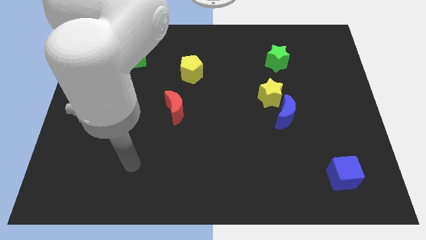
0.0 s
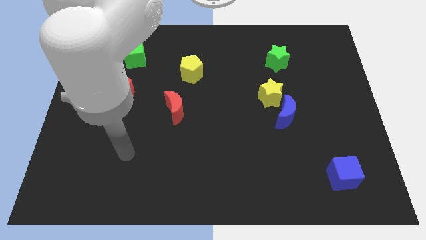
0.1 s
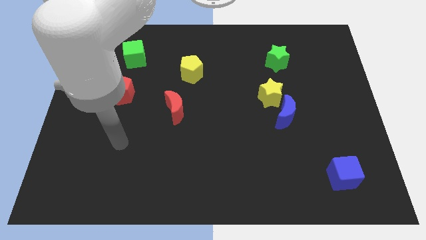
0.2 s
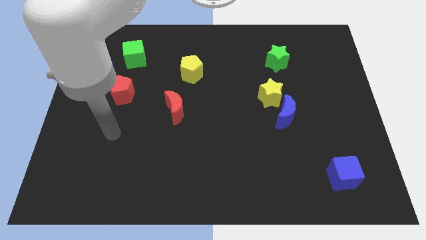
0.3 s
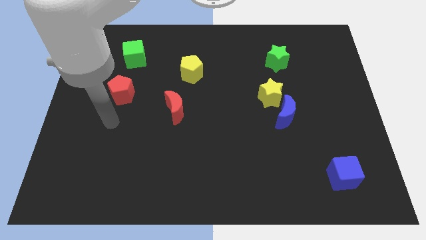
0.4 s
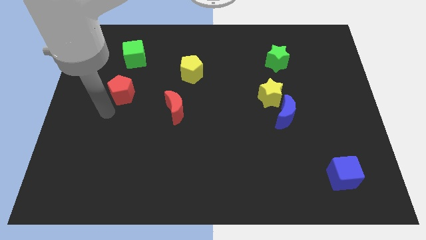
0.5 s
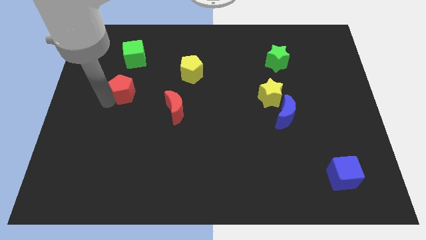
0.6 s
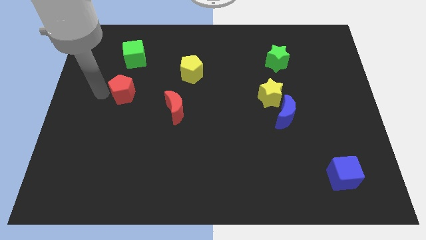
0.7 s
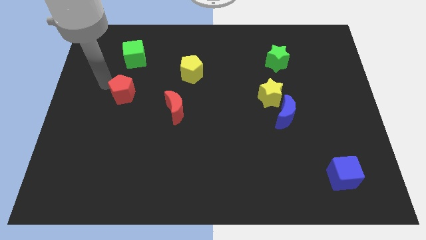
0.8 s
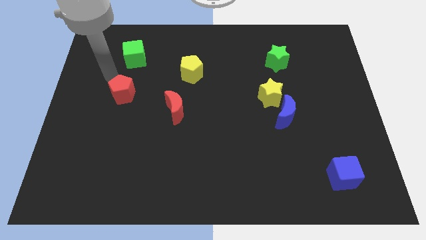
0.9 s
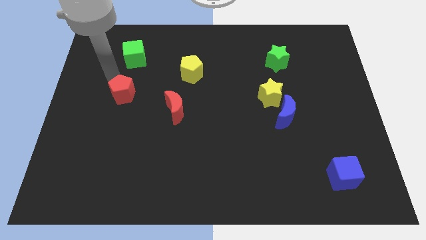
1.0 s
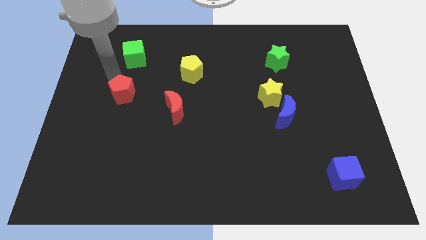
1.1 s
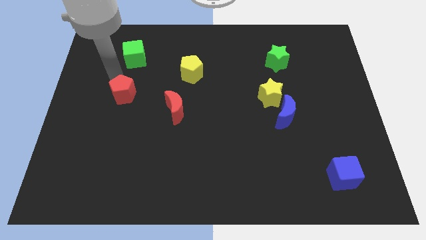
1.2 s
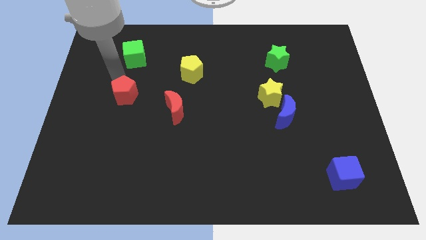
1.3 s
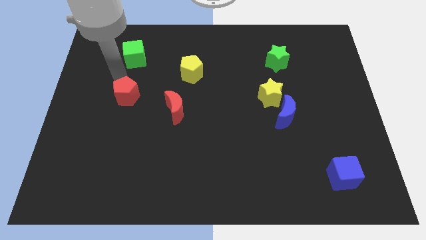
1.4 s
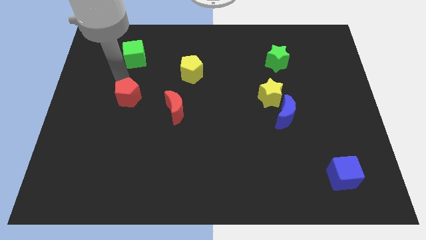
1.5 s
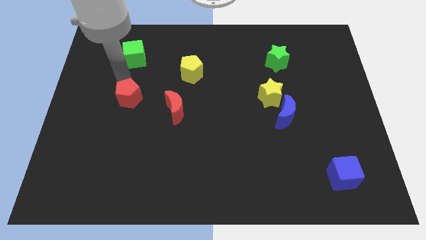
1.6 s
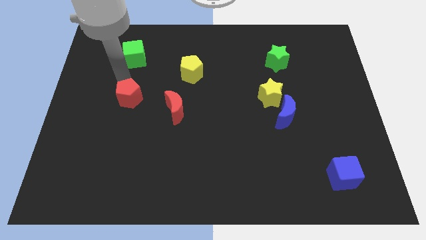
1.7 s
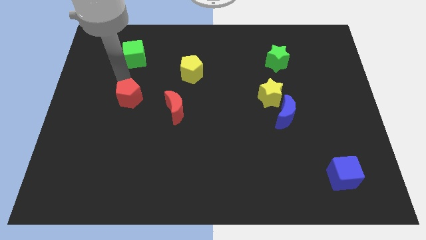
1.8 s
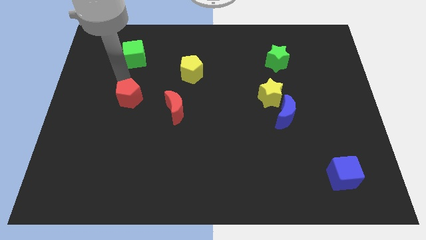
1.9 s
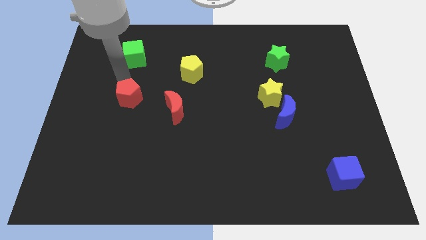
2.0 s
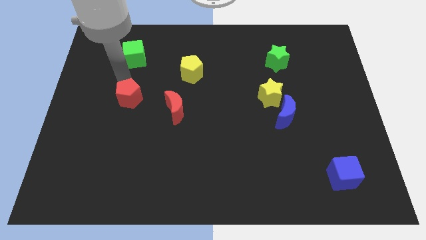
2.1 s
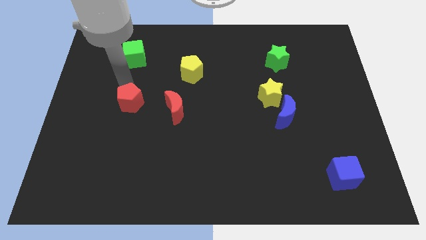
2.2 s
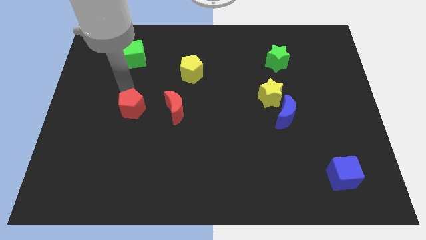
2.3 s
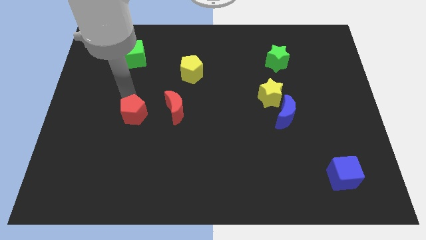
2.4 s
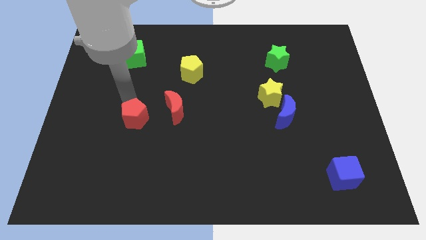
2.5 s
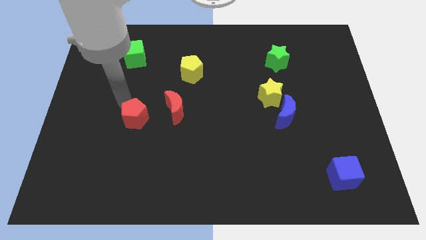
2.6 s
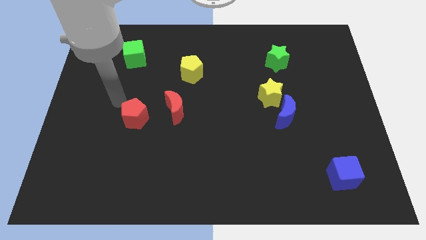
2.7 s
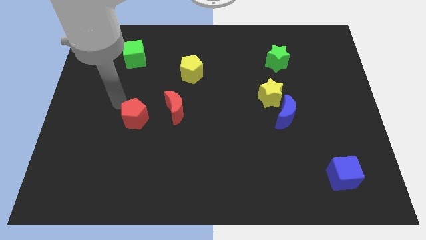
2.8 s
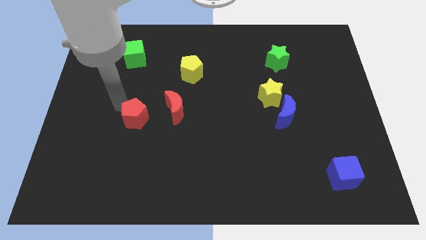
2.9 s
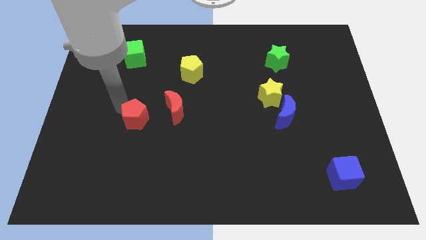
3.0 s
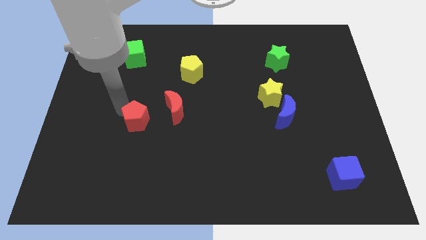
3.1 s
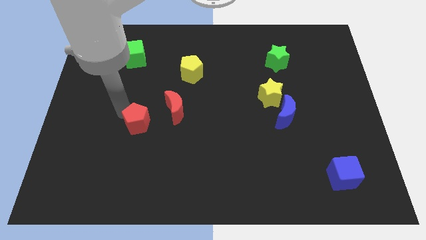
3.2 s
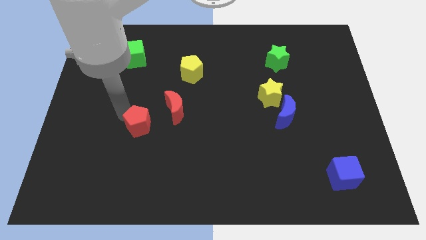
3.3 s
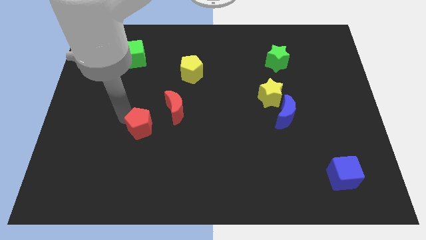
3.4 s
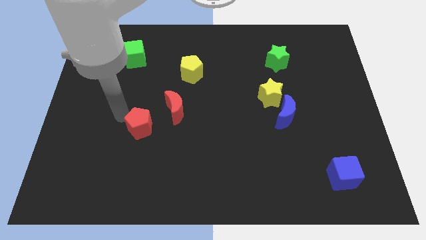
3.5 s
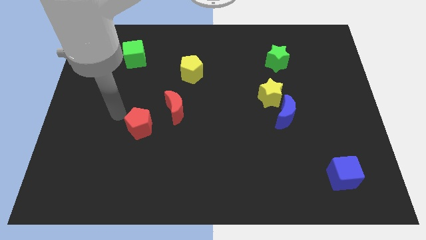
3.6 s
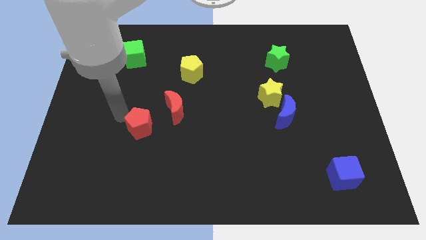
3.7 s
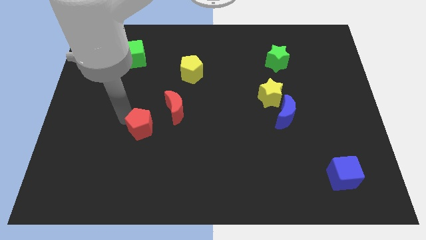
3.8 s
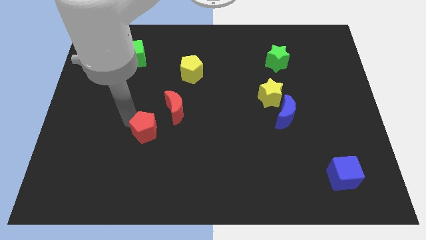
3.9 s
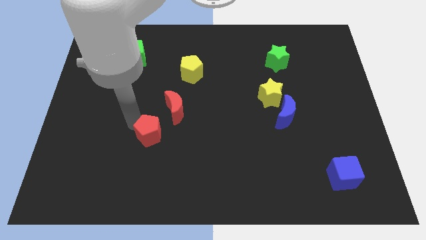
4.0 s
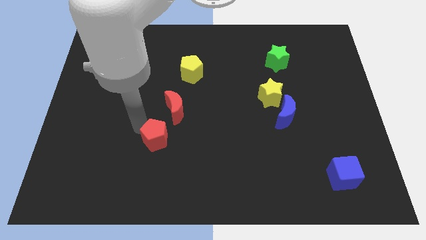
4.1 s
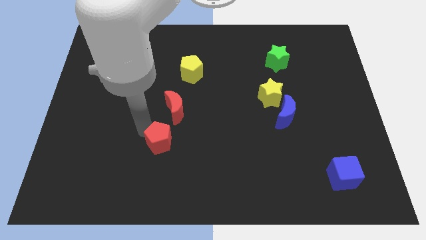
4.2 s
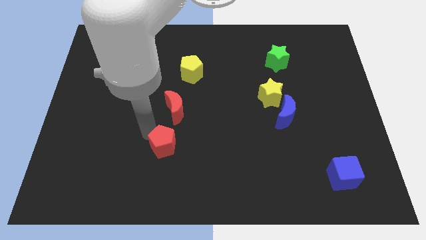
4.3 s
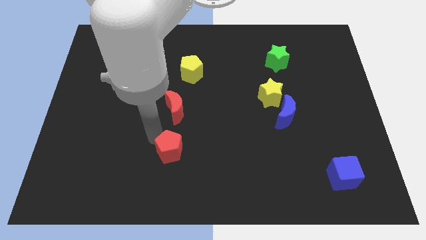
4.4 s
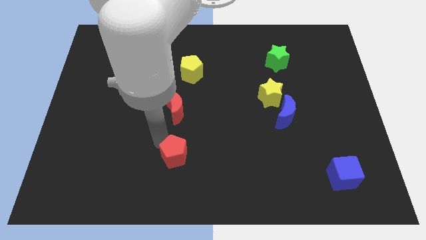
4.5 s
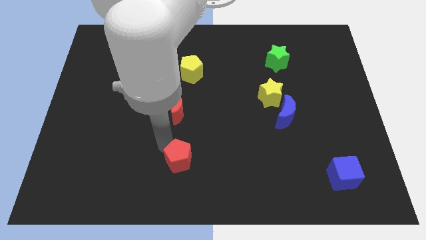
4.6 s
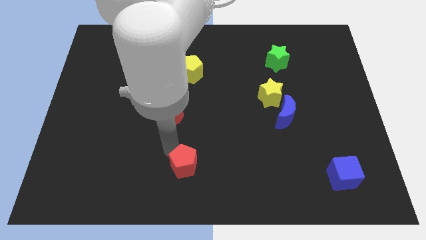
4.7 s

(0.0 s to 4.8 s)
move the red pentagon to the bottom side

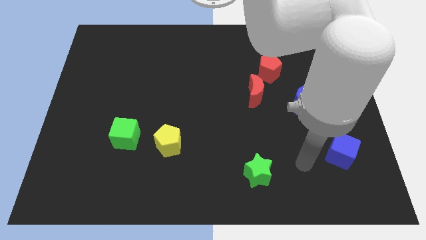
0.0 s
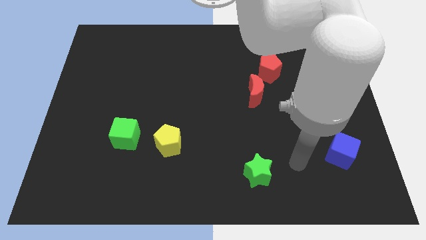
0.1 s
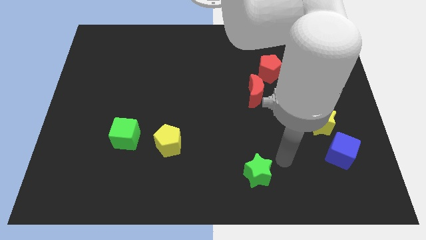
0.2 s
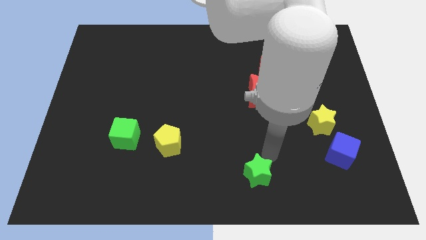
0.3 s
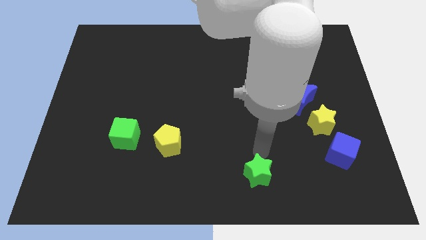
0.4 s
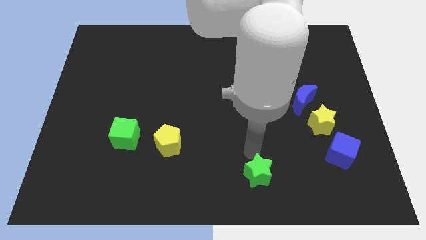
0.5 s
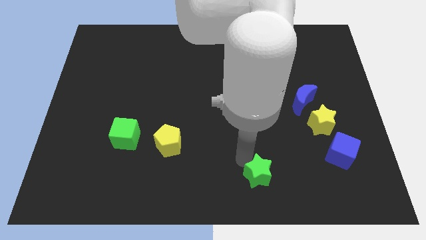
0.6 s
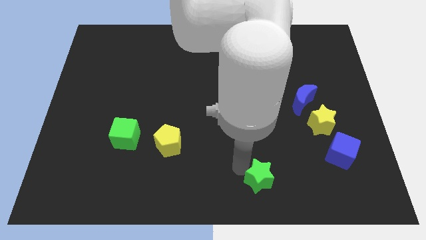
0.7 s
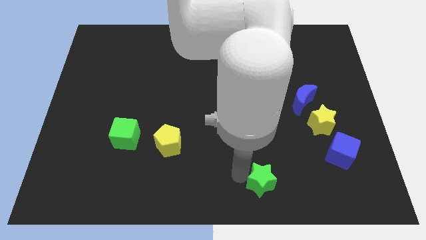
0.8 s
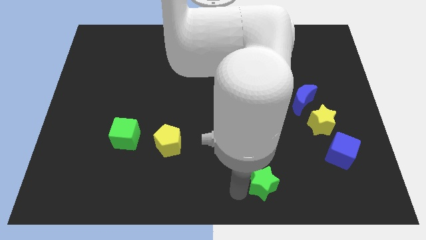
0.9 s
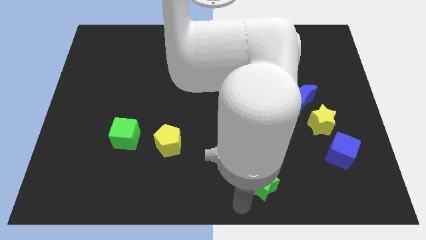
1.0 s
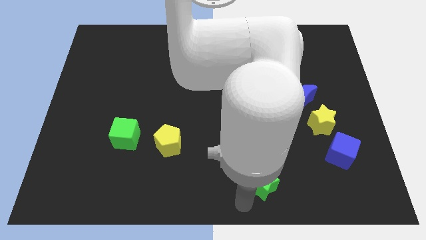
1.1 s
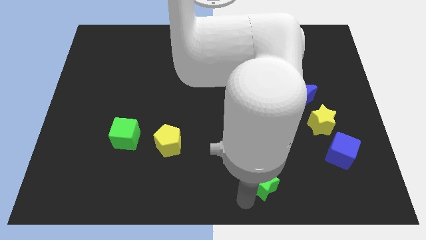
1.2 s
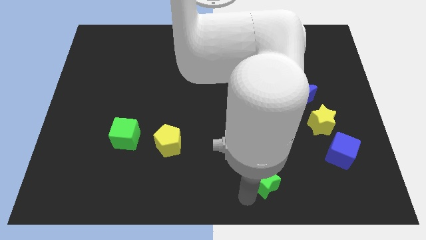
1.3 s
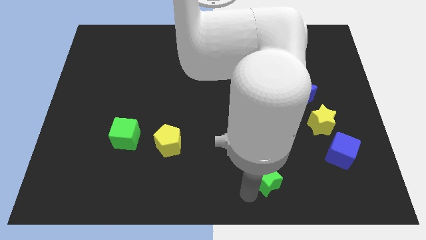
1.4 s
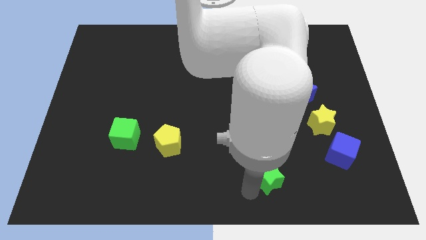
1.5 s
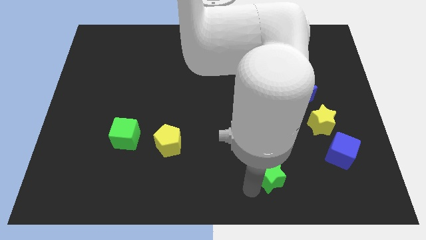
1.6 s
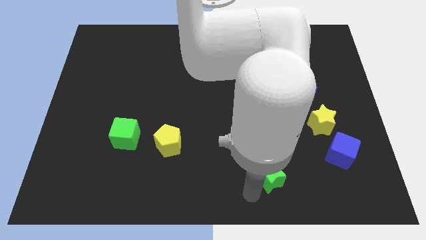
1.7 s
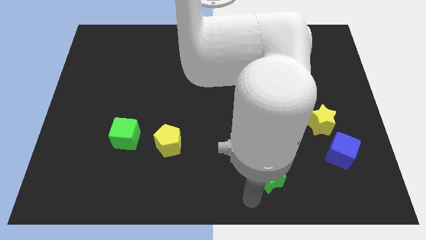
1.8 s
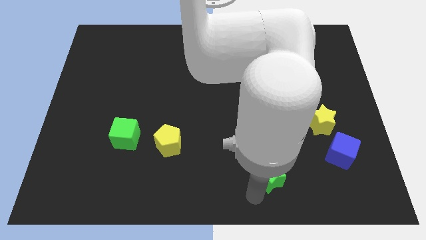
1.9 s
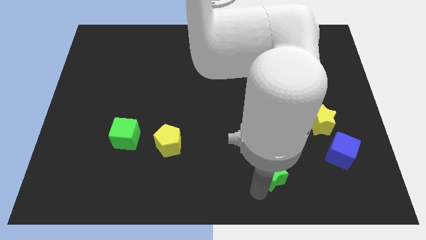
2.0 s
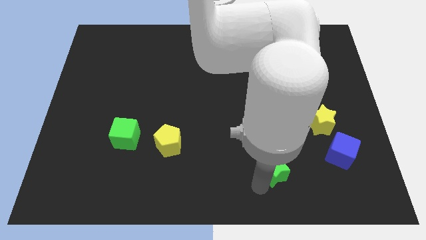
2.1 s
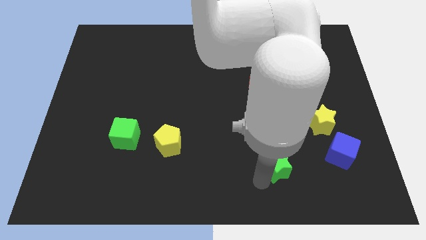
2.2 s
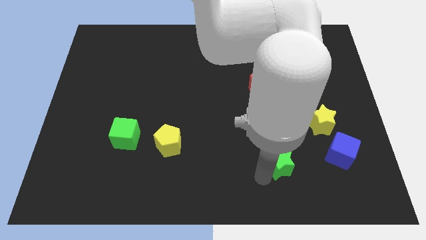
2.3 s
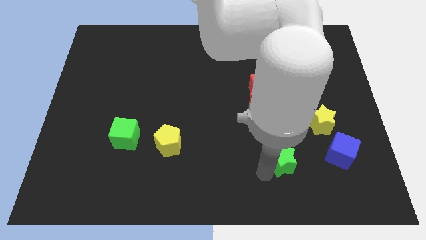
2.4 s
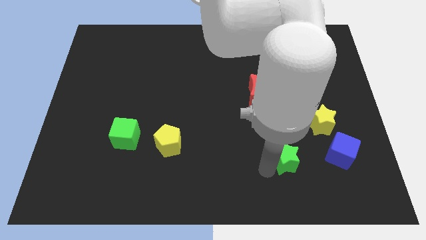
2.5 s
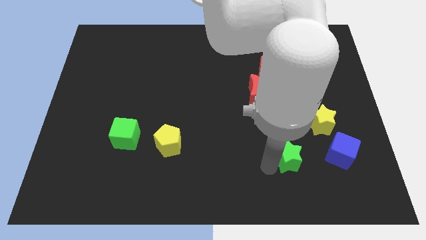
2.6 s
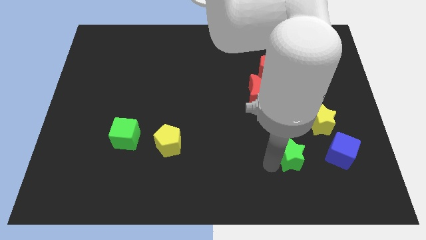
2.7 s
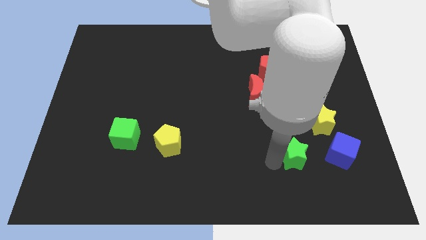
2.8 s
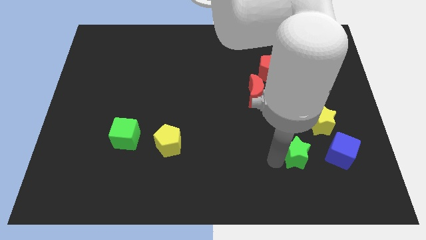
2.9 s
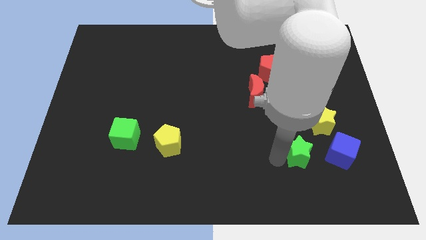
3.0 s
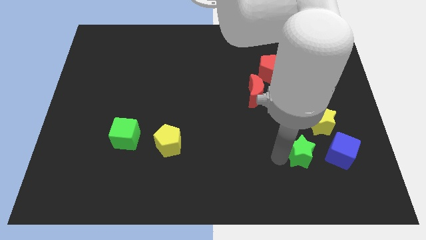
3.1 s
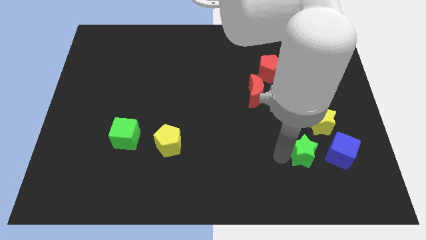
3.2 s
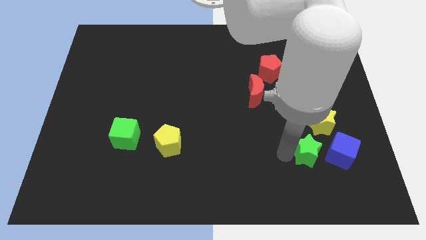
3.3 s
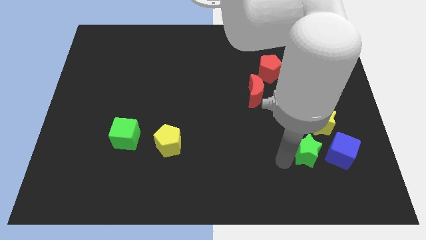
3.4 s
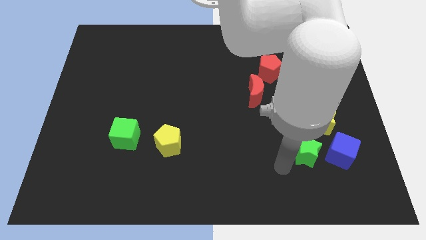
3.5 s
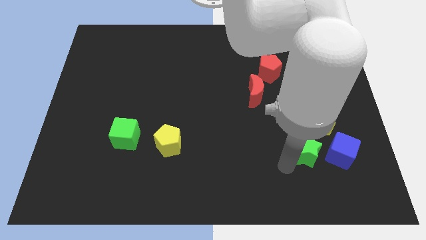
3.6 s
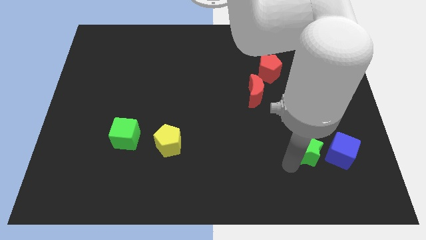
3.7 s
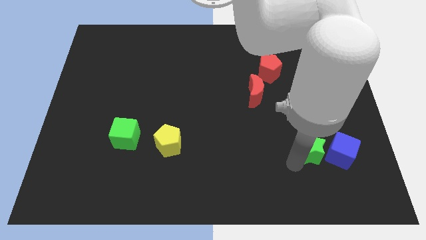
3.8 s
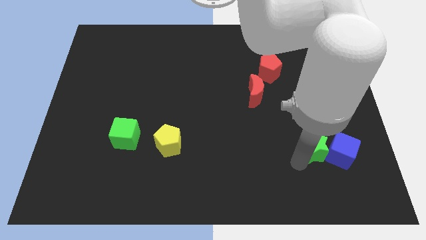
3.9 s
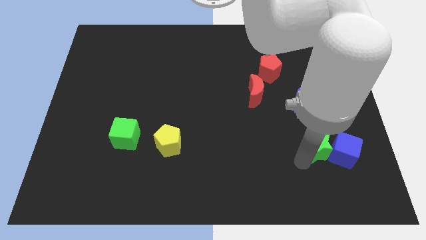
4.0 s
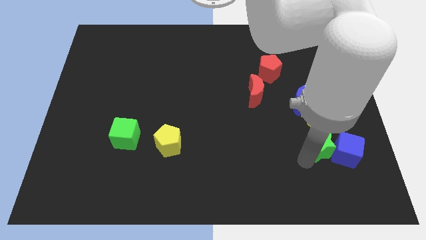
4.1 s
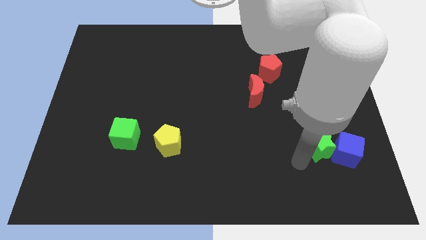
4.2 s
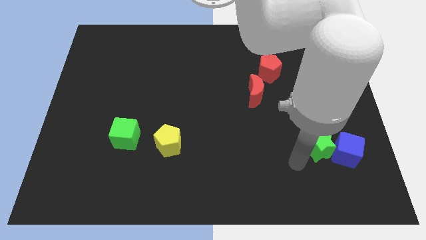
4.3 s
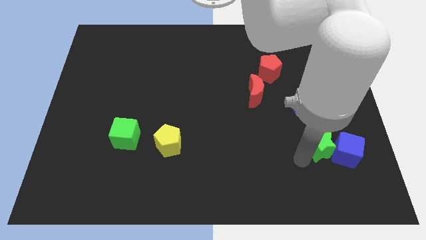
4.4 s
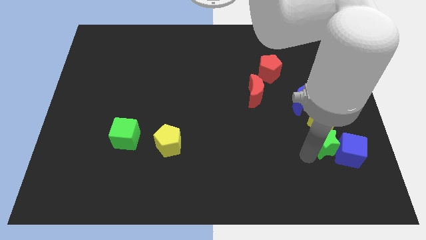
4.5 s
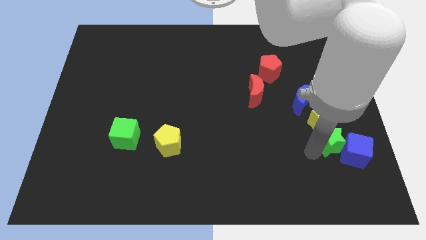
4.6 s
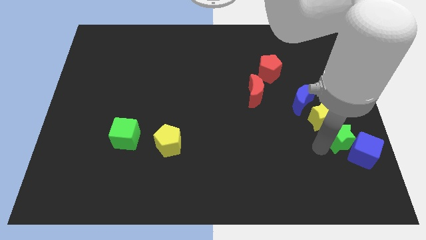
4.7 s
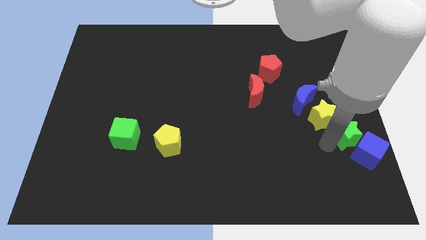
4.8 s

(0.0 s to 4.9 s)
slide the green star to the center right
